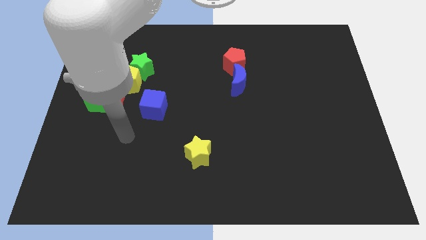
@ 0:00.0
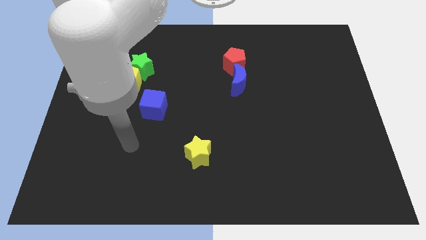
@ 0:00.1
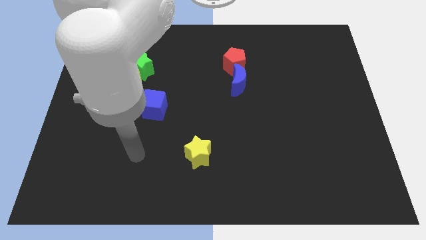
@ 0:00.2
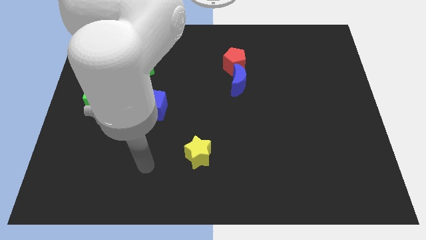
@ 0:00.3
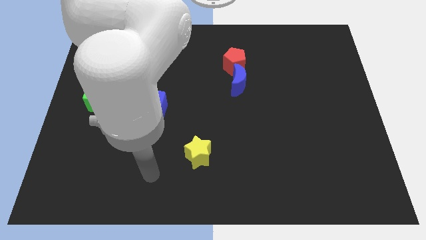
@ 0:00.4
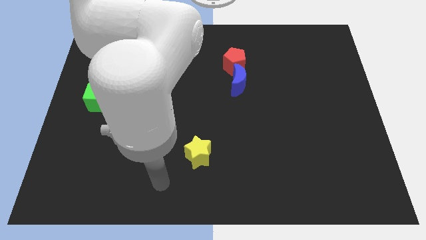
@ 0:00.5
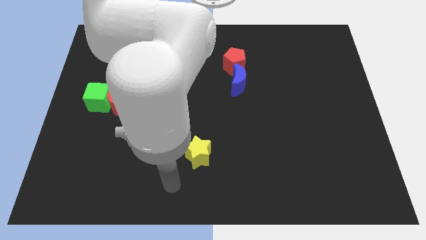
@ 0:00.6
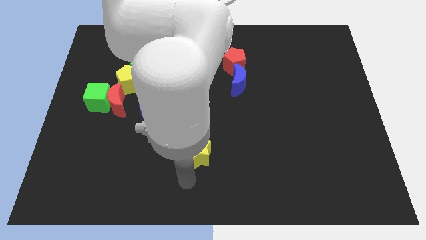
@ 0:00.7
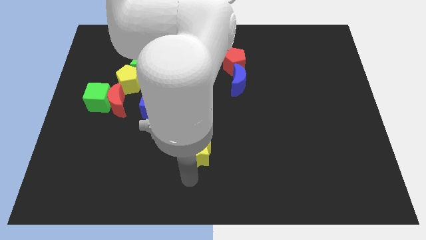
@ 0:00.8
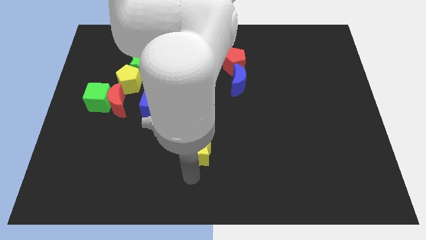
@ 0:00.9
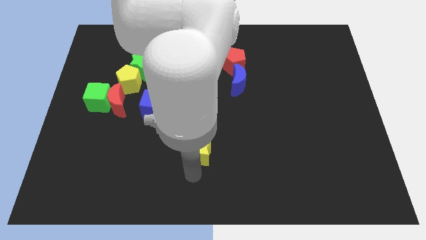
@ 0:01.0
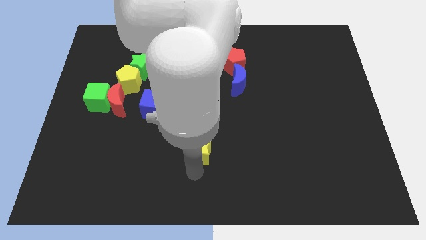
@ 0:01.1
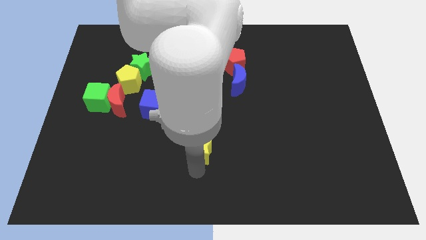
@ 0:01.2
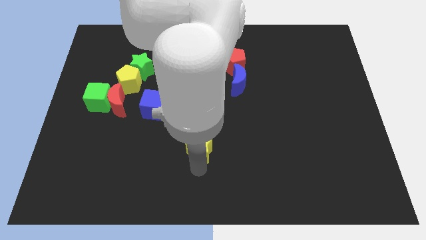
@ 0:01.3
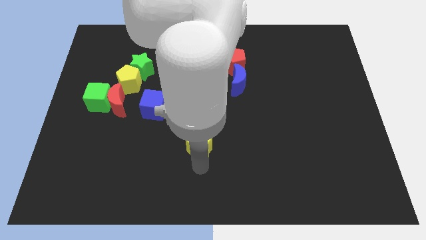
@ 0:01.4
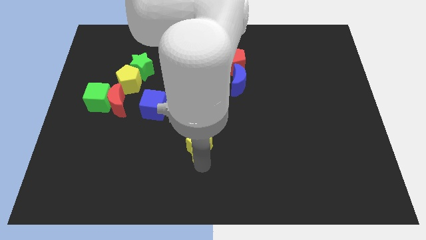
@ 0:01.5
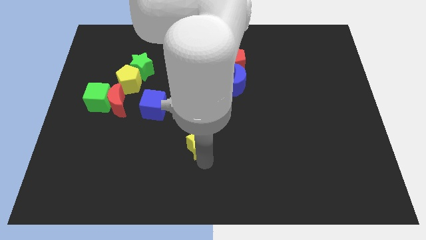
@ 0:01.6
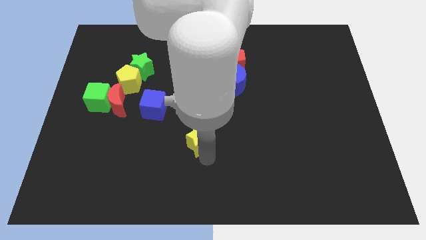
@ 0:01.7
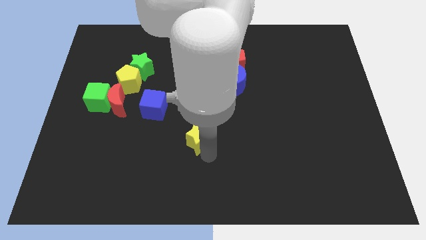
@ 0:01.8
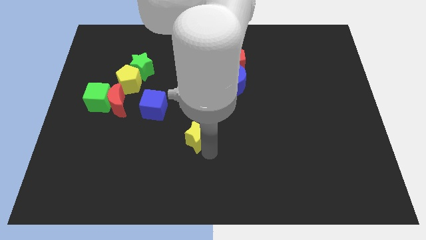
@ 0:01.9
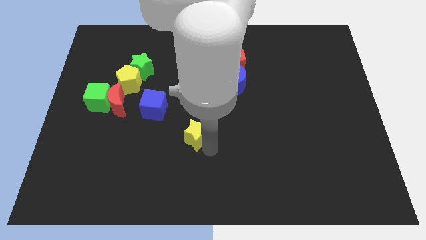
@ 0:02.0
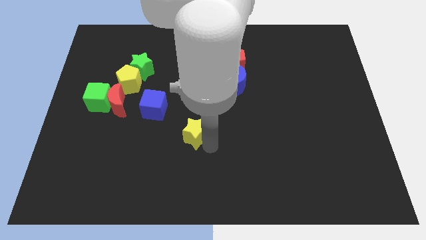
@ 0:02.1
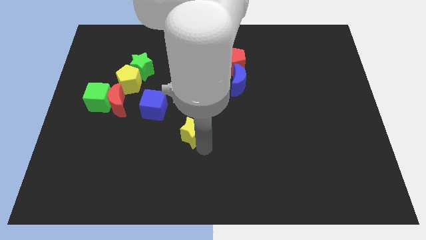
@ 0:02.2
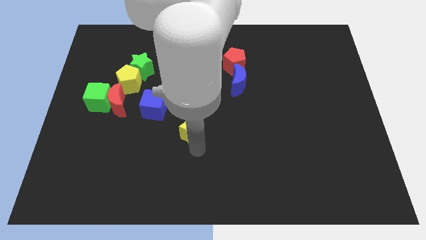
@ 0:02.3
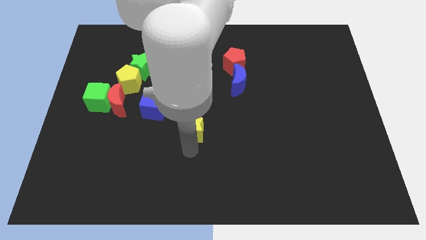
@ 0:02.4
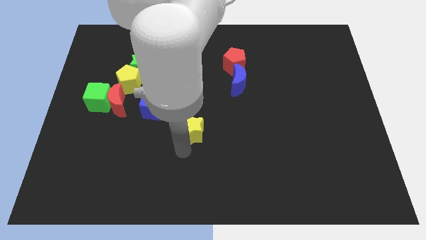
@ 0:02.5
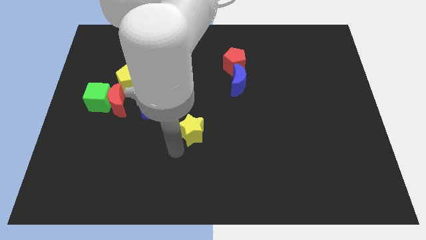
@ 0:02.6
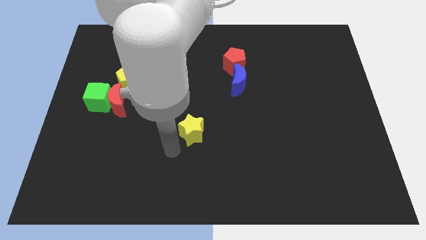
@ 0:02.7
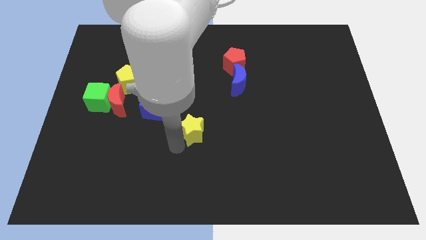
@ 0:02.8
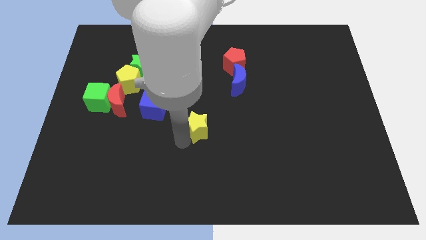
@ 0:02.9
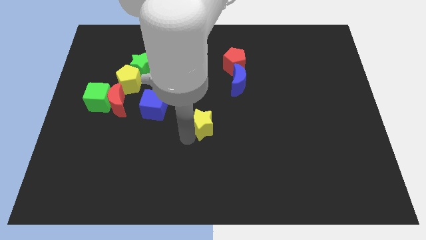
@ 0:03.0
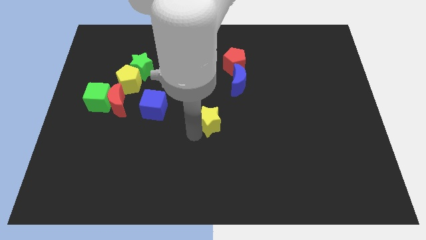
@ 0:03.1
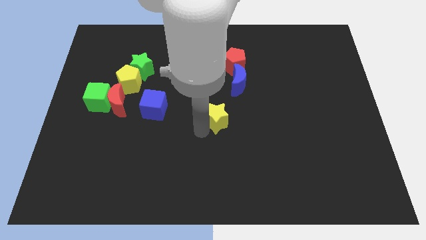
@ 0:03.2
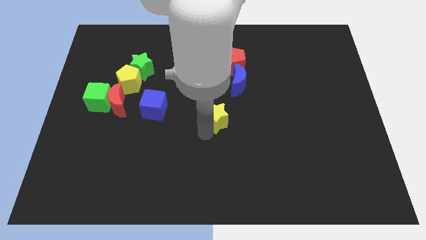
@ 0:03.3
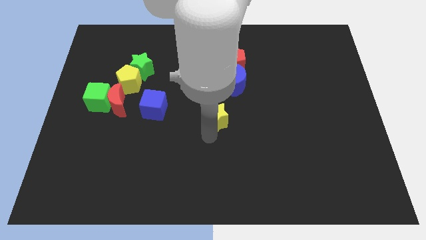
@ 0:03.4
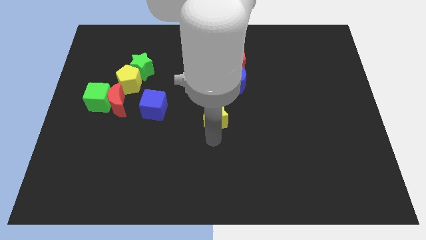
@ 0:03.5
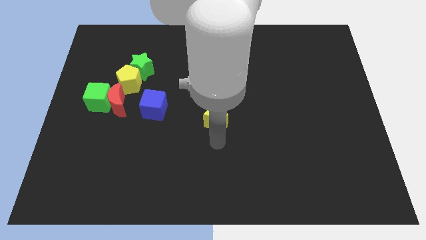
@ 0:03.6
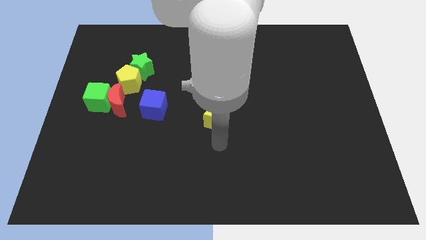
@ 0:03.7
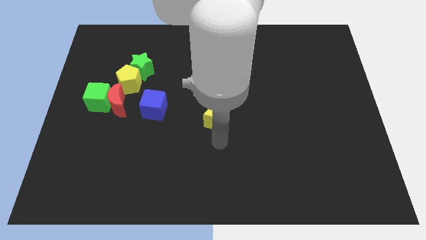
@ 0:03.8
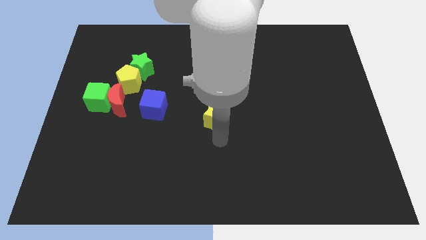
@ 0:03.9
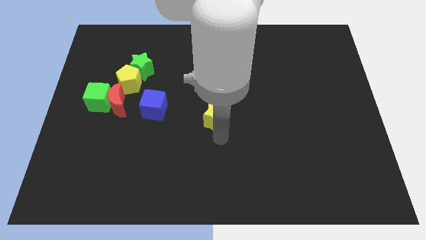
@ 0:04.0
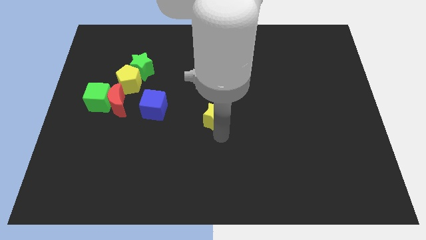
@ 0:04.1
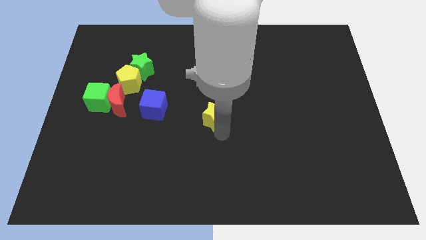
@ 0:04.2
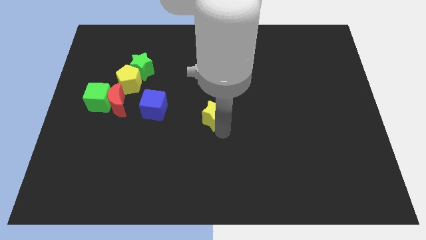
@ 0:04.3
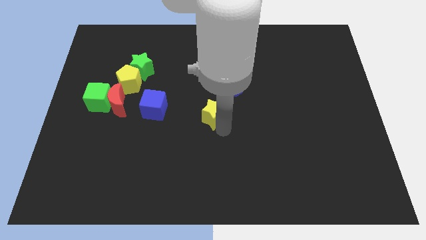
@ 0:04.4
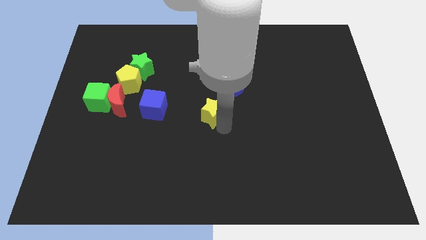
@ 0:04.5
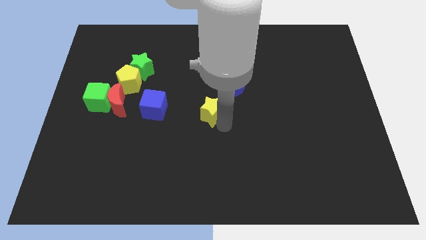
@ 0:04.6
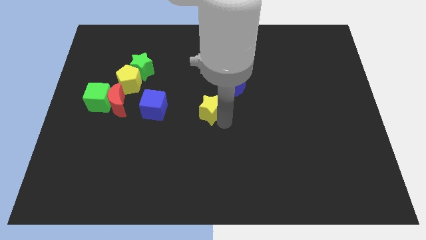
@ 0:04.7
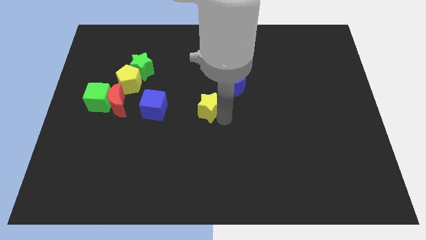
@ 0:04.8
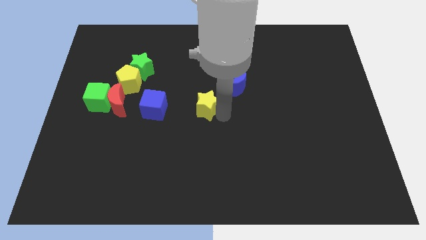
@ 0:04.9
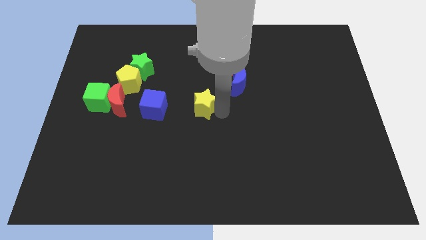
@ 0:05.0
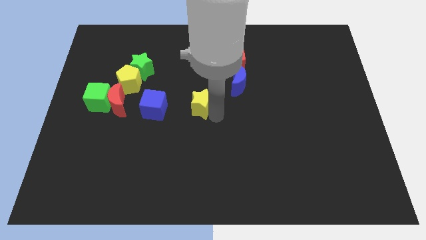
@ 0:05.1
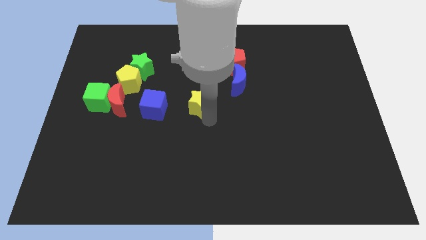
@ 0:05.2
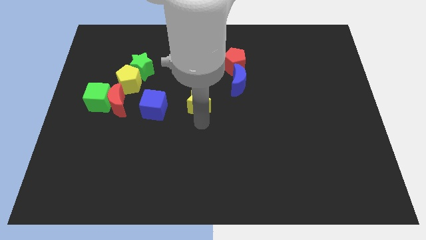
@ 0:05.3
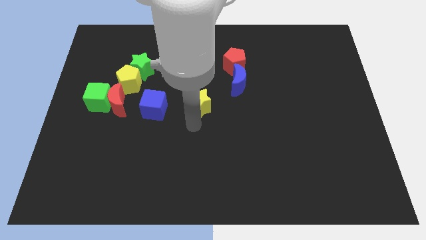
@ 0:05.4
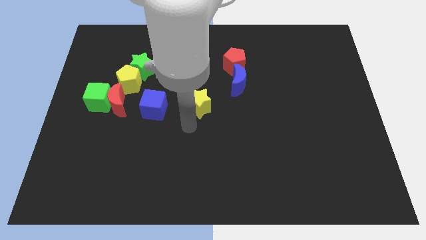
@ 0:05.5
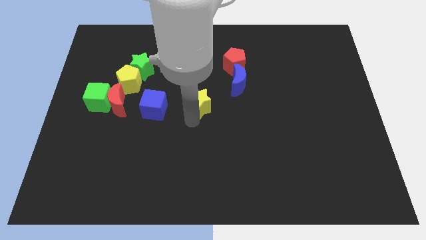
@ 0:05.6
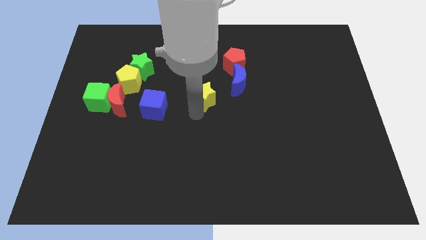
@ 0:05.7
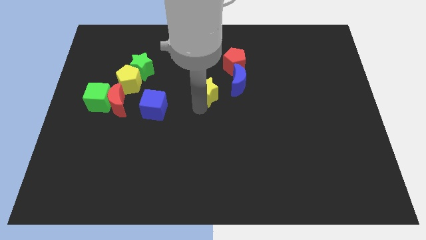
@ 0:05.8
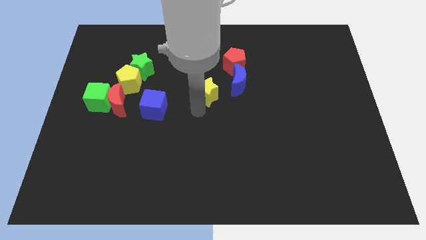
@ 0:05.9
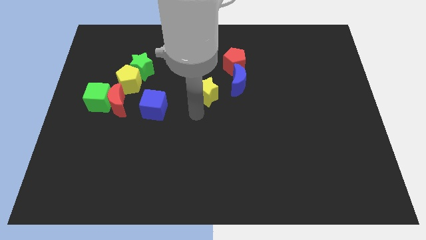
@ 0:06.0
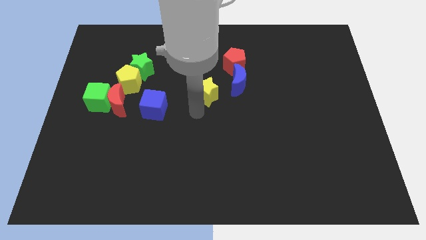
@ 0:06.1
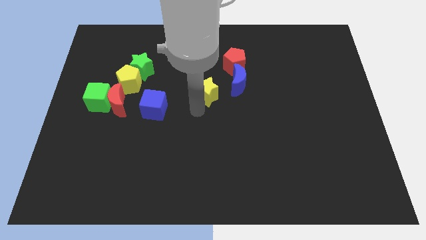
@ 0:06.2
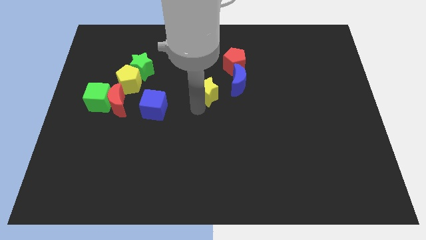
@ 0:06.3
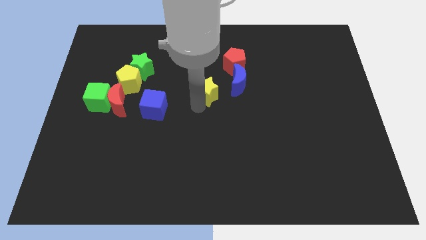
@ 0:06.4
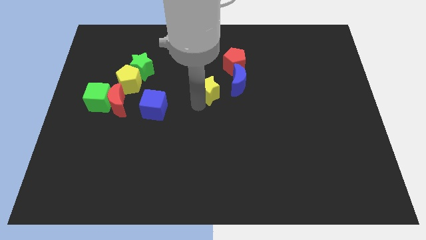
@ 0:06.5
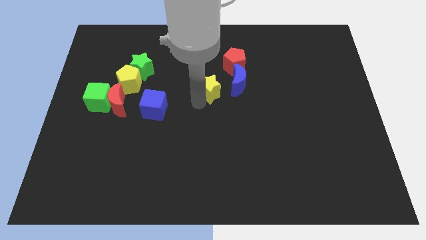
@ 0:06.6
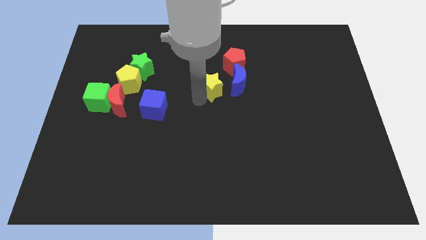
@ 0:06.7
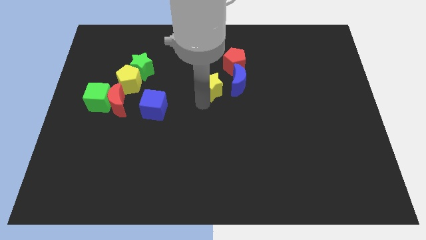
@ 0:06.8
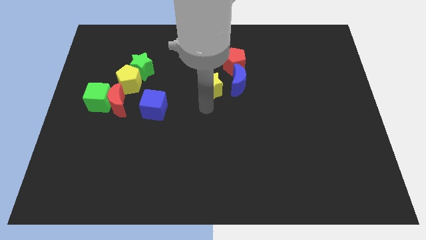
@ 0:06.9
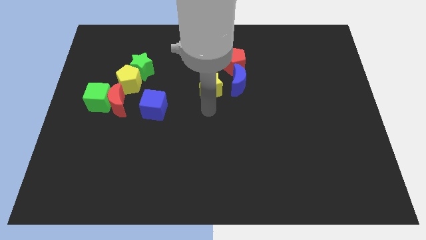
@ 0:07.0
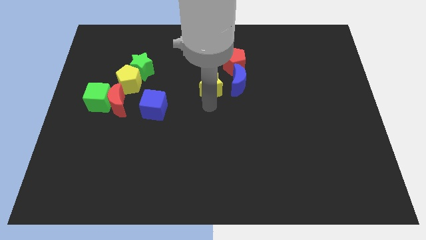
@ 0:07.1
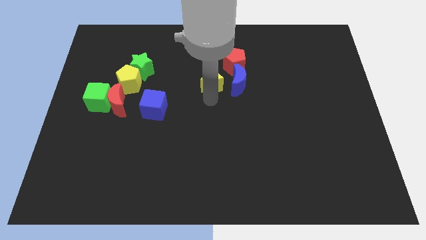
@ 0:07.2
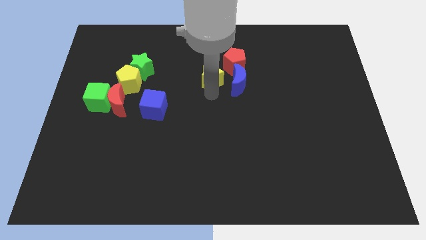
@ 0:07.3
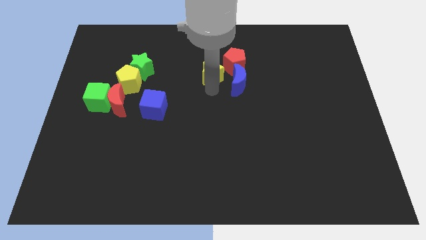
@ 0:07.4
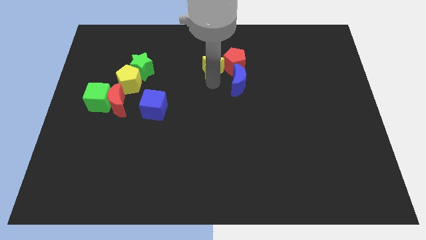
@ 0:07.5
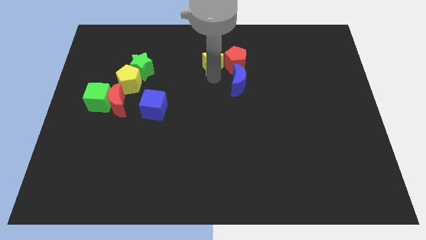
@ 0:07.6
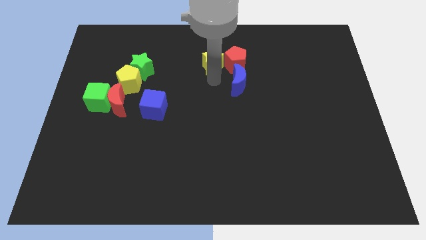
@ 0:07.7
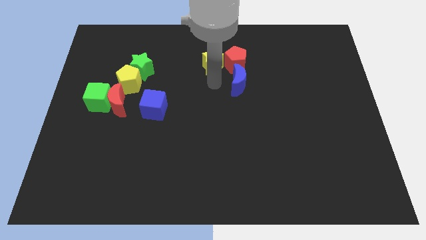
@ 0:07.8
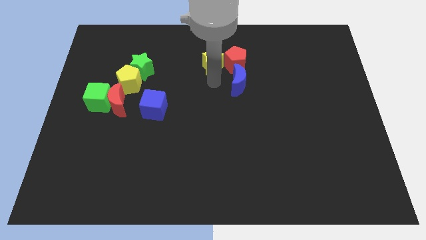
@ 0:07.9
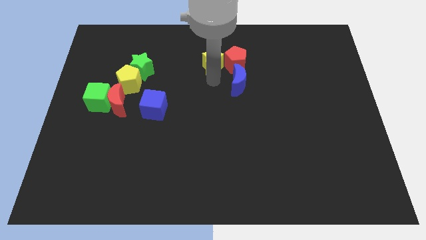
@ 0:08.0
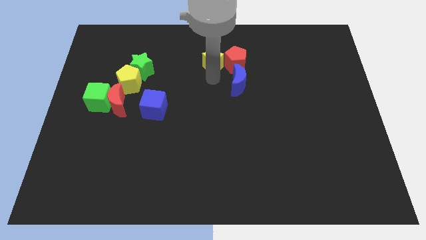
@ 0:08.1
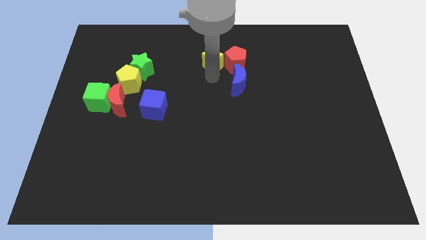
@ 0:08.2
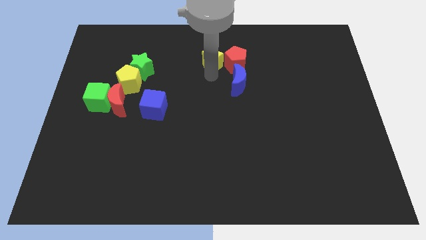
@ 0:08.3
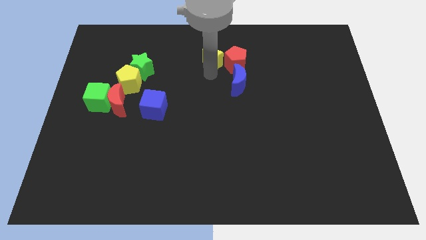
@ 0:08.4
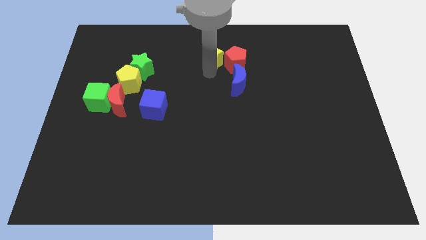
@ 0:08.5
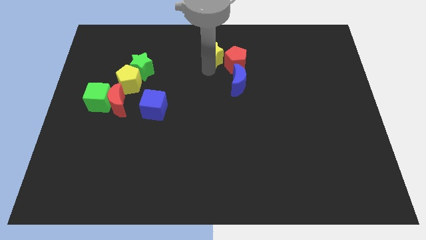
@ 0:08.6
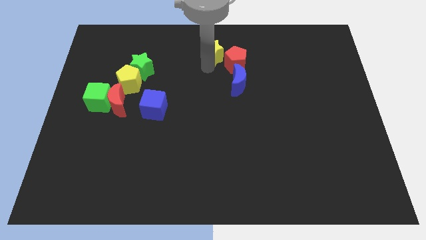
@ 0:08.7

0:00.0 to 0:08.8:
move the yellow star to the towards your base
